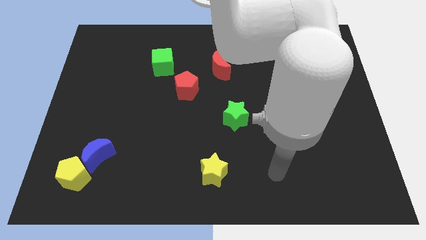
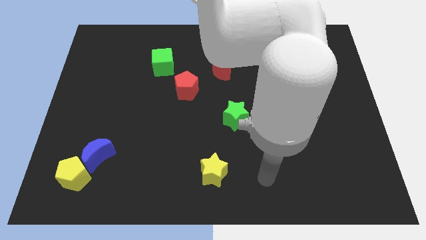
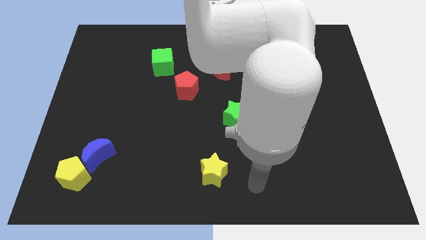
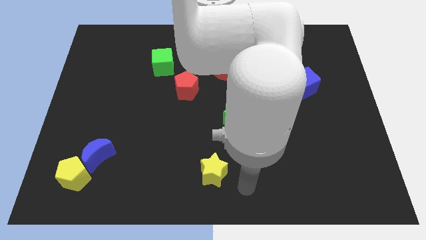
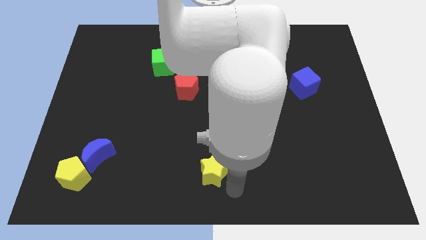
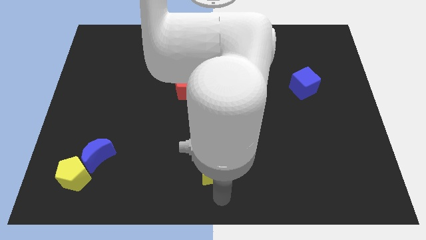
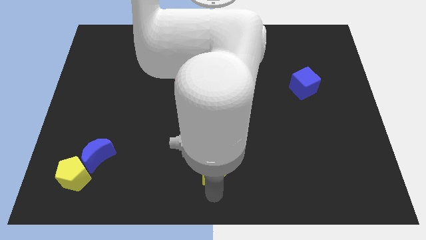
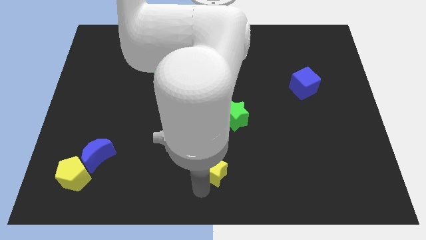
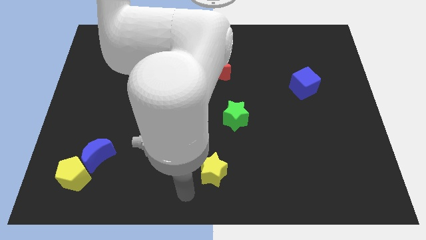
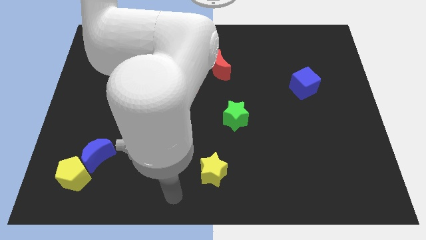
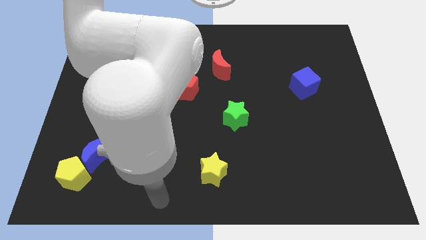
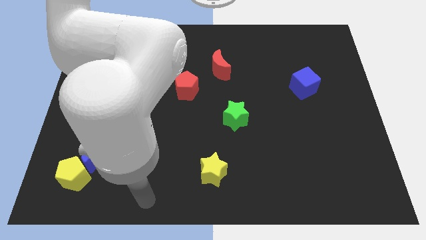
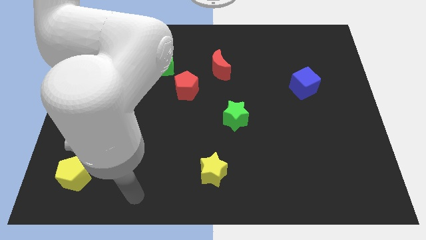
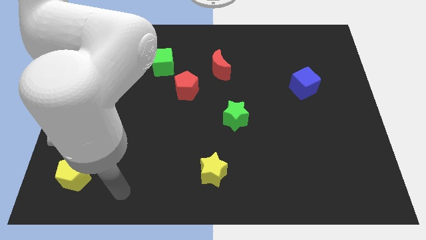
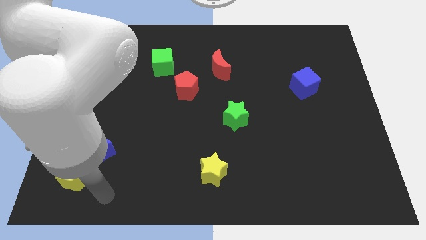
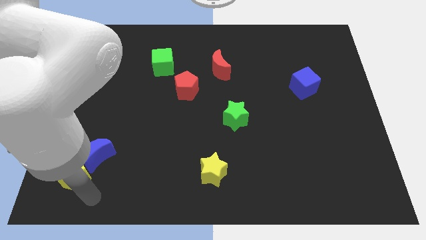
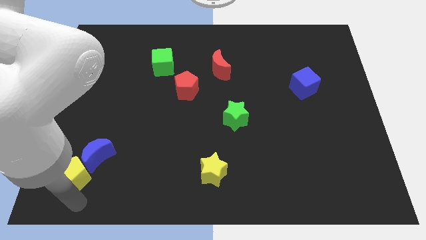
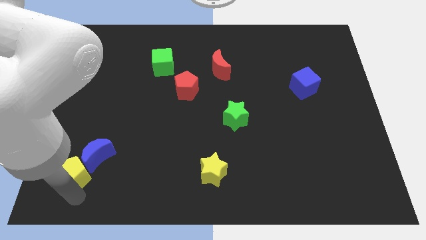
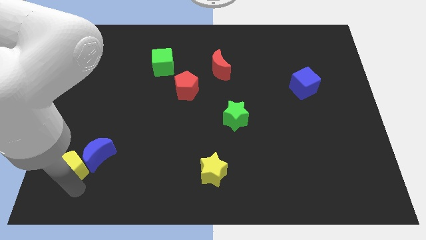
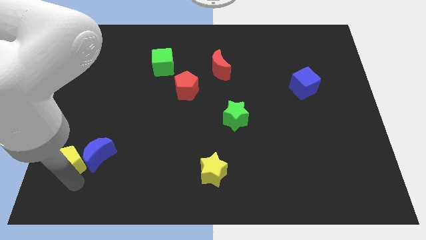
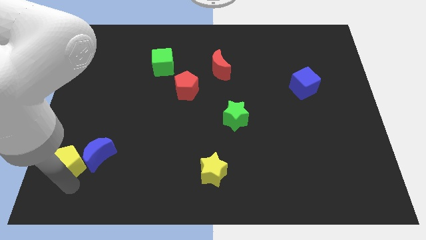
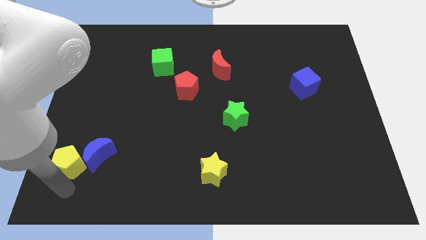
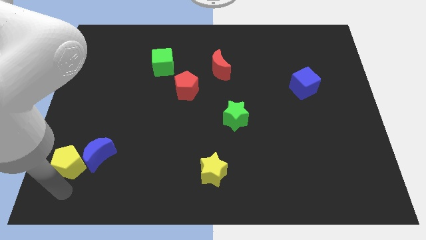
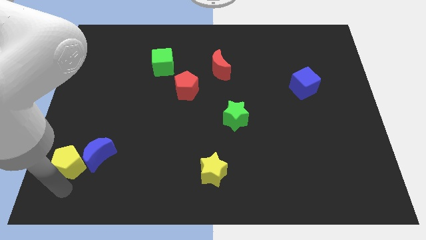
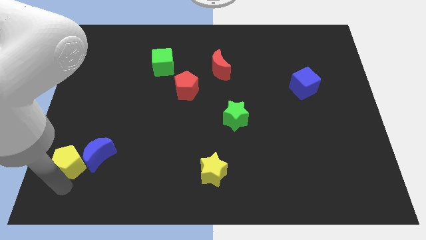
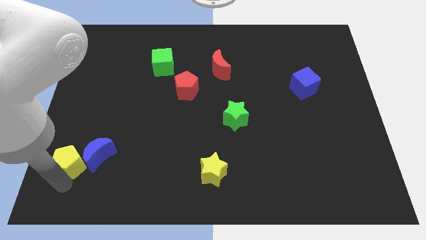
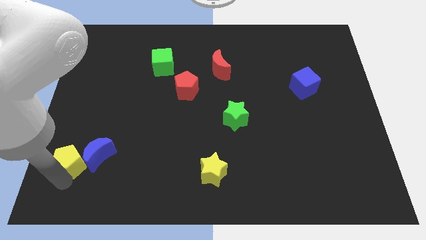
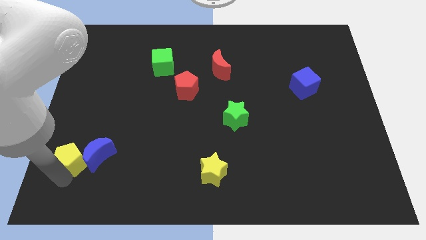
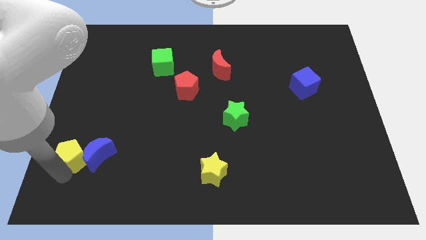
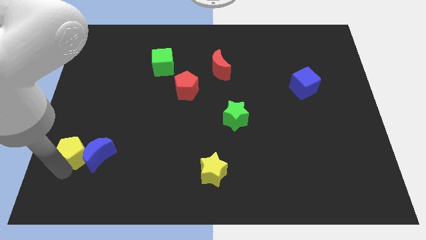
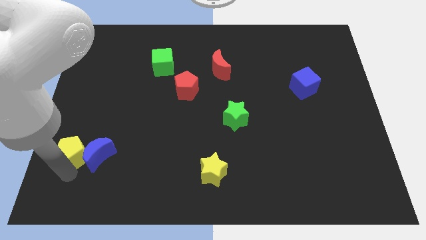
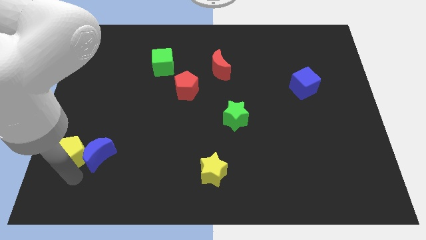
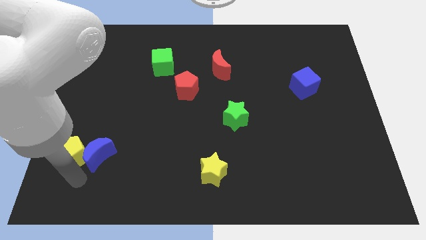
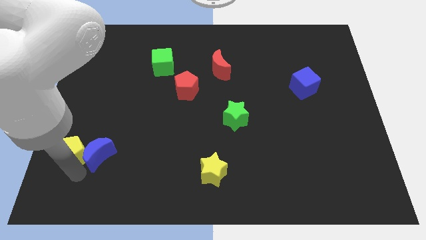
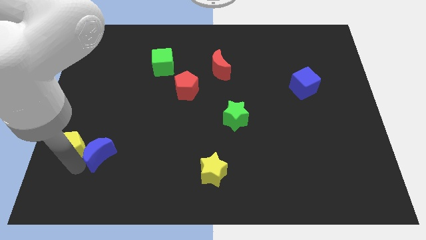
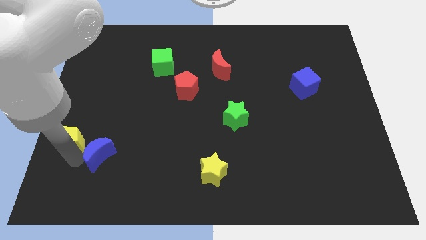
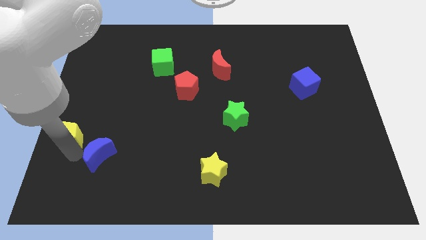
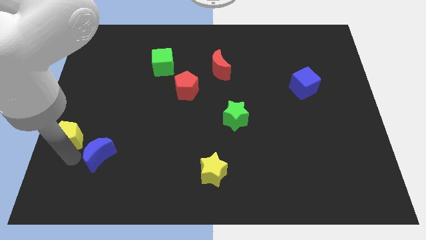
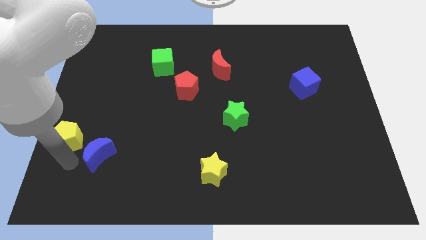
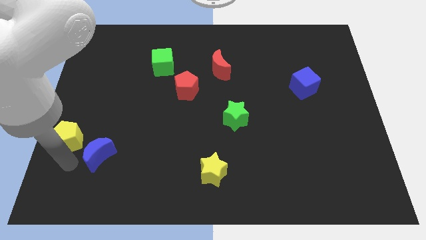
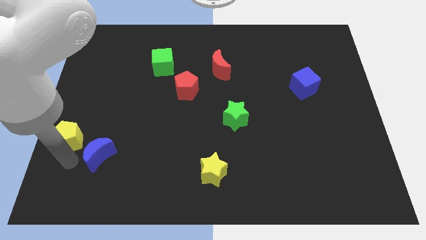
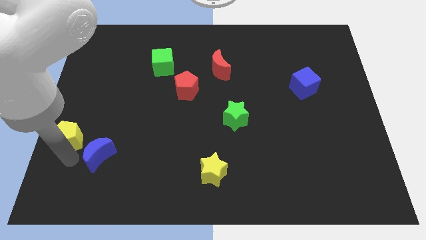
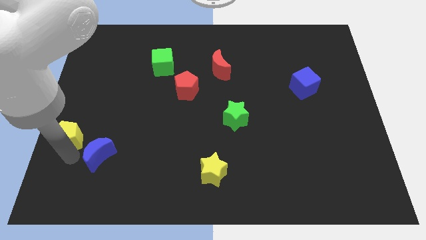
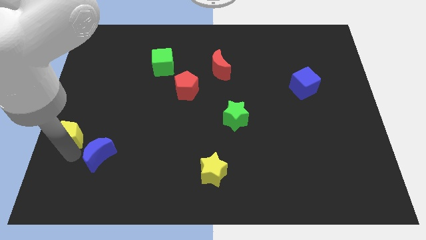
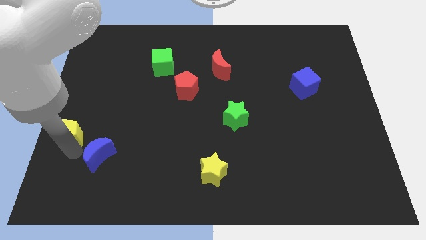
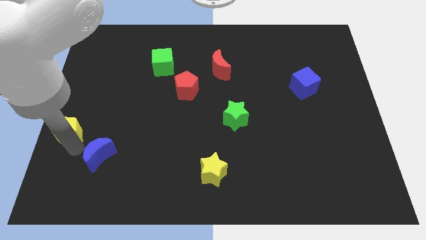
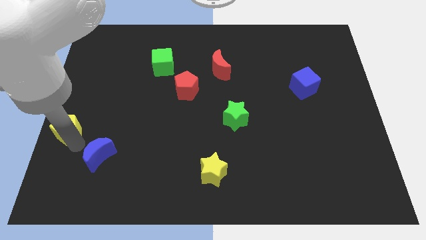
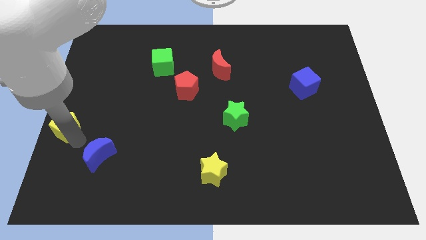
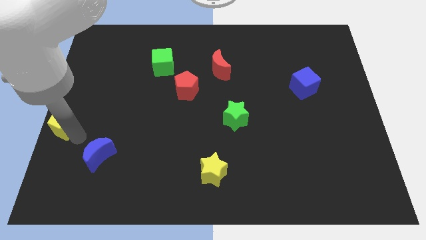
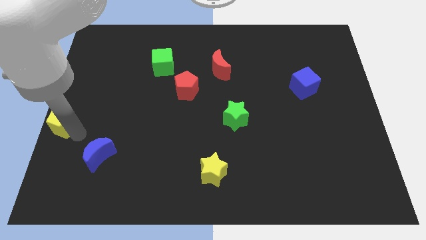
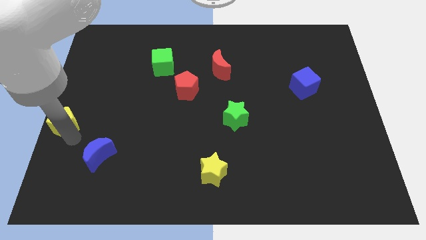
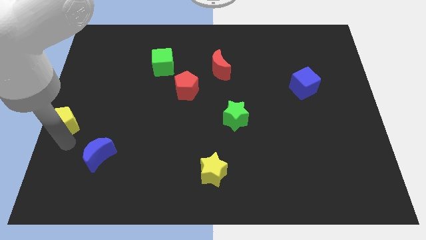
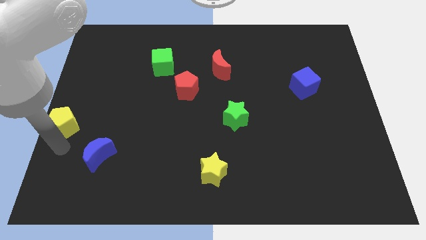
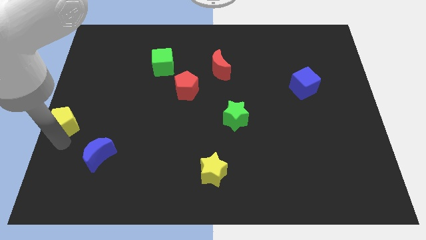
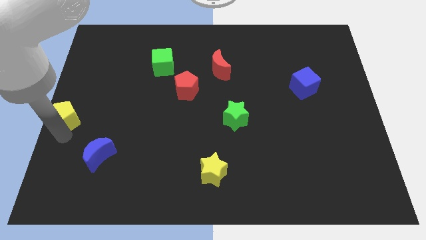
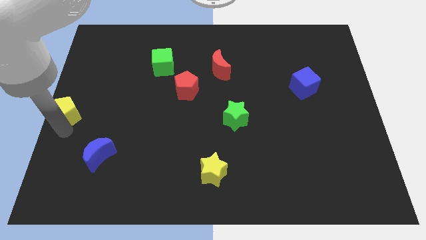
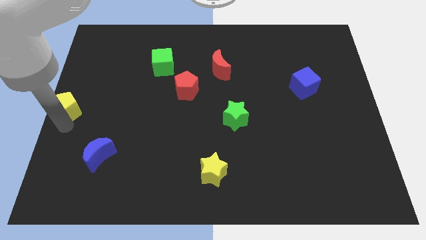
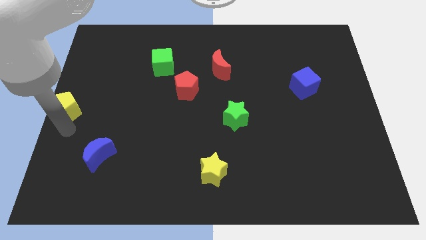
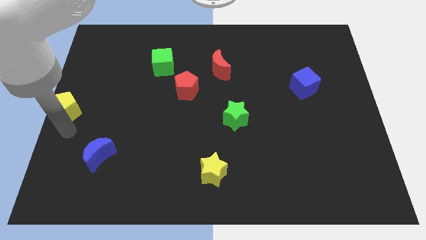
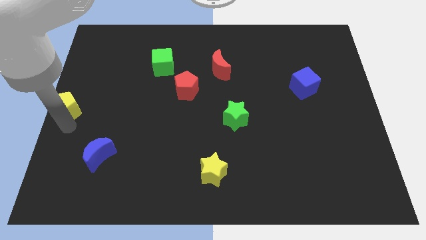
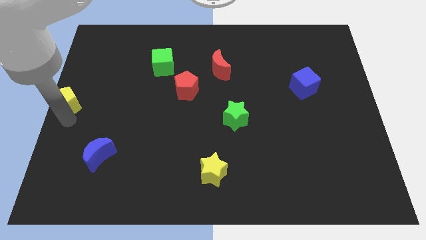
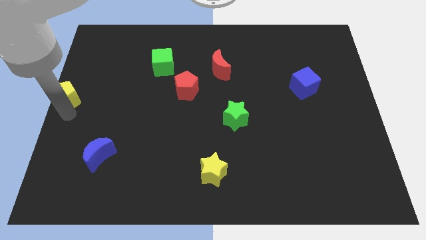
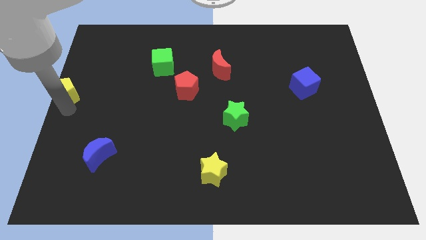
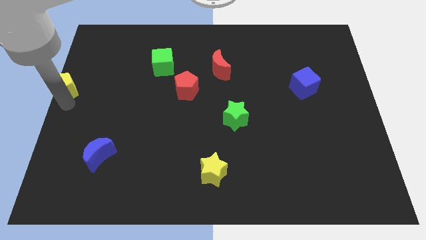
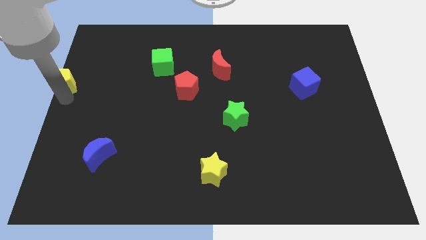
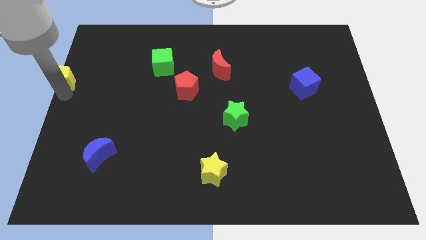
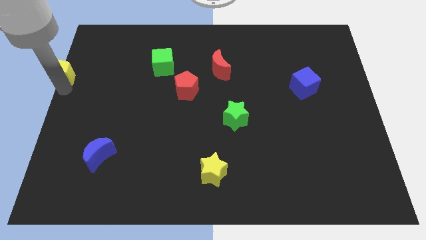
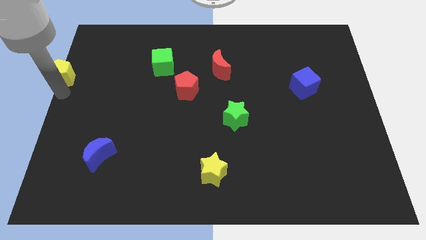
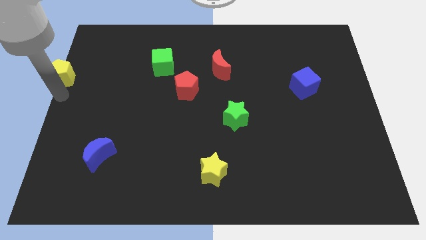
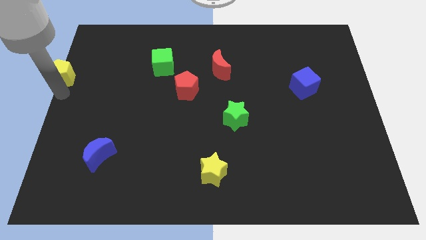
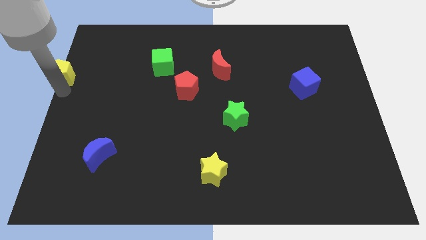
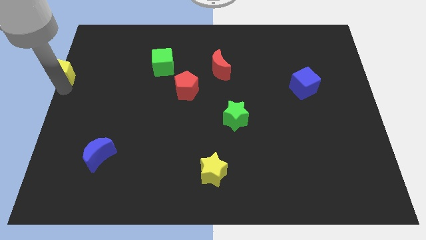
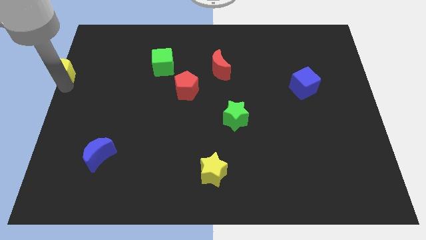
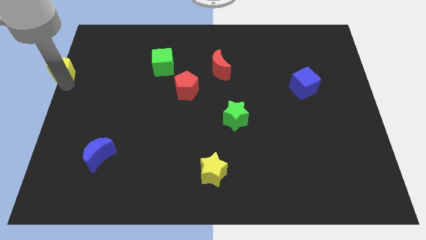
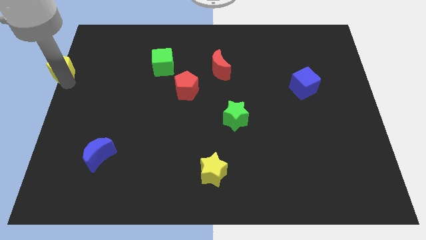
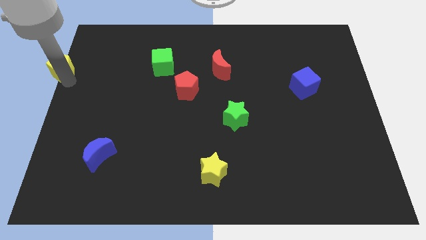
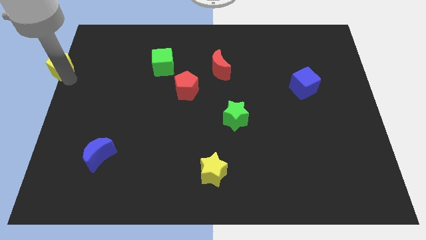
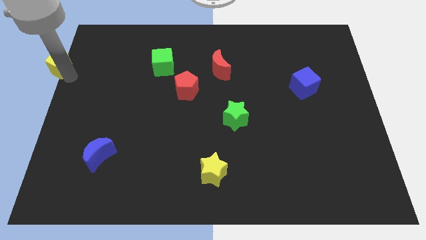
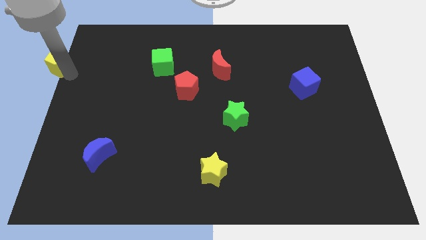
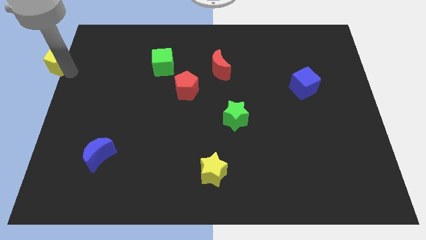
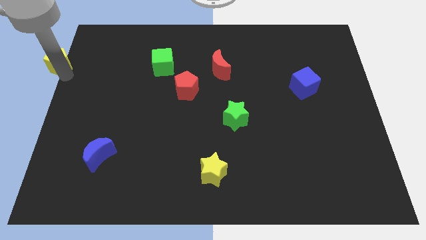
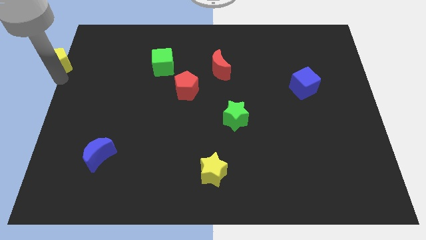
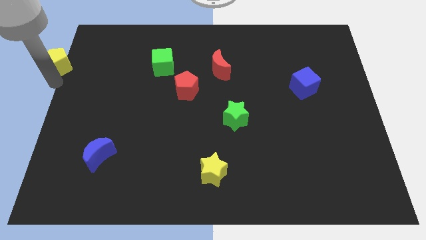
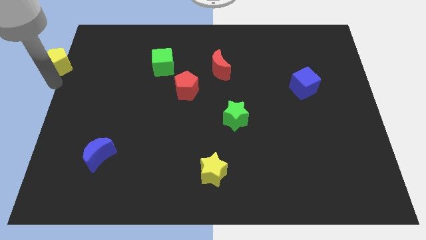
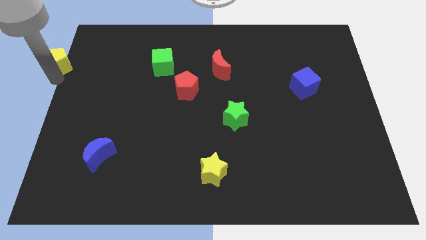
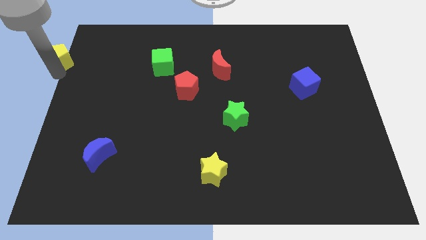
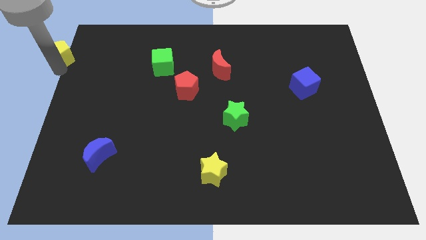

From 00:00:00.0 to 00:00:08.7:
move the yellow pentagon to the top left of the board
